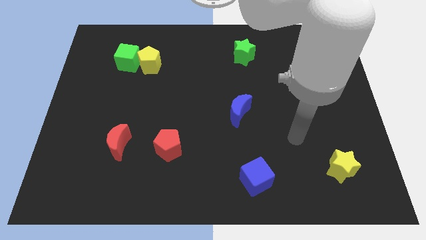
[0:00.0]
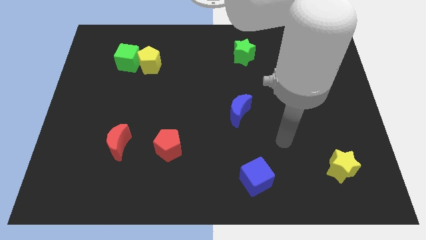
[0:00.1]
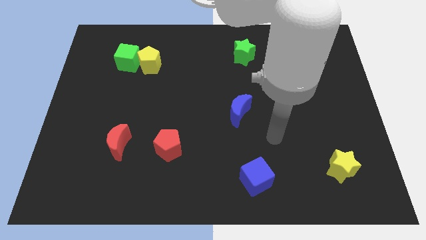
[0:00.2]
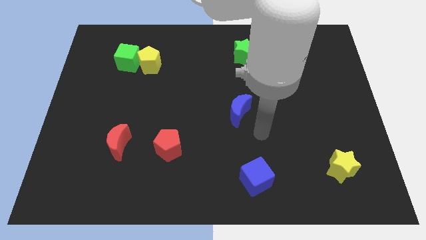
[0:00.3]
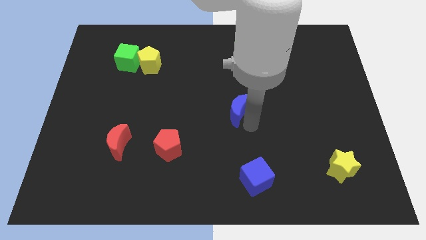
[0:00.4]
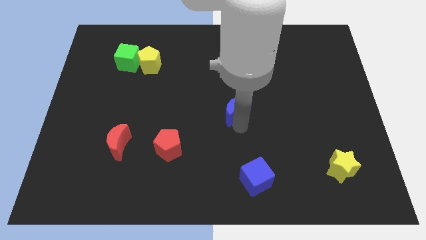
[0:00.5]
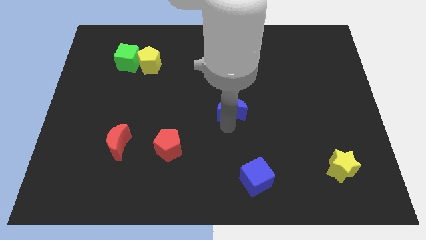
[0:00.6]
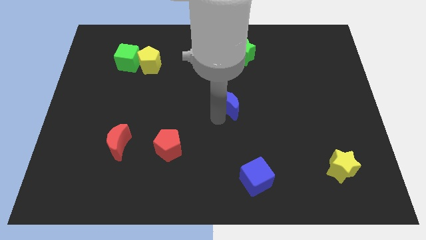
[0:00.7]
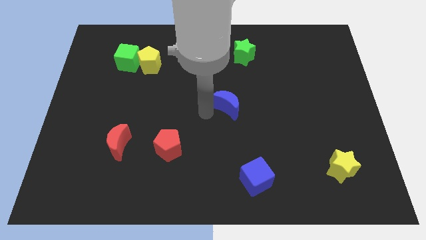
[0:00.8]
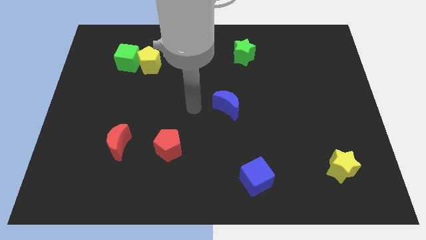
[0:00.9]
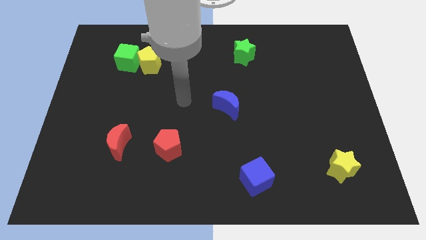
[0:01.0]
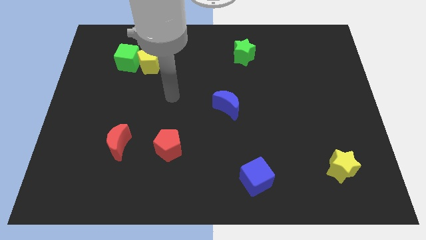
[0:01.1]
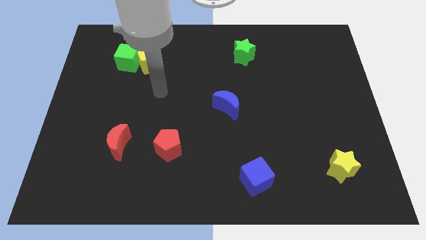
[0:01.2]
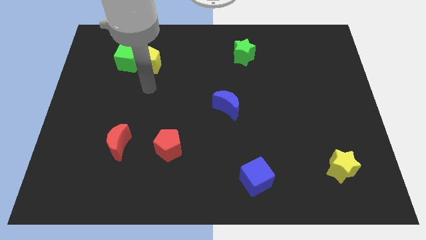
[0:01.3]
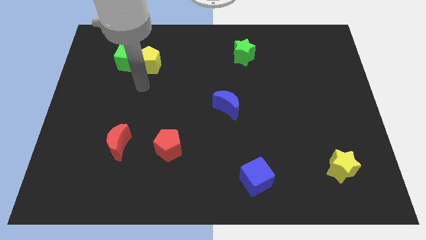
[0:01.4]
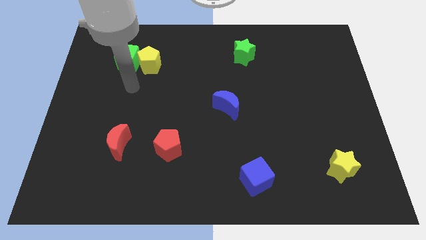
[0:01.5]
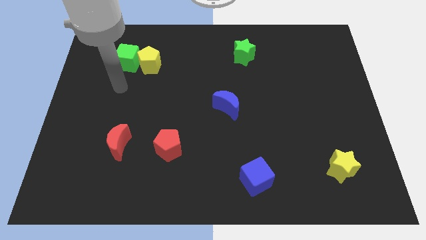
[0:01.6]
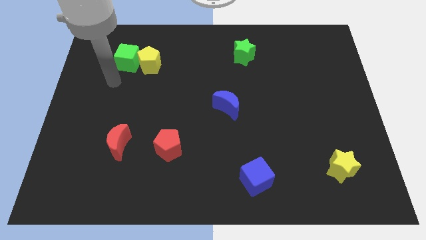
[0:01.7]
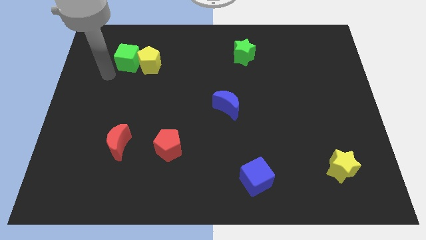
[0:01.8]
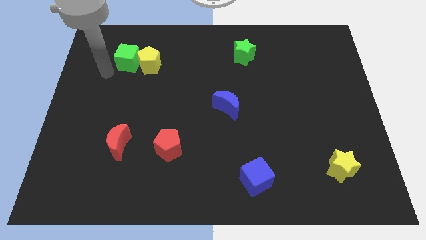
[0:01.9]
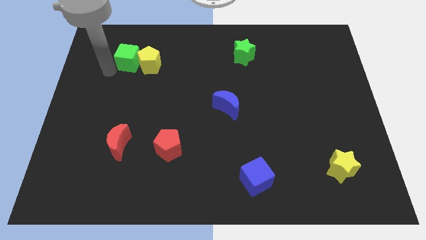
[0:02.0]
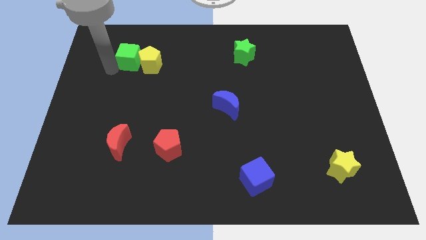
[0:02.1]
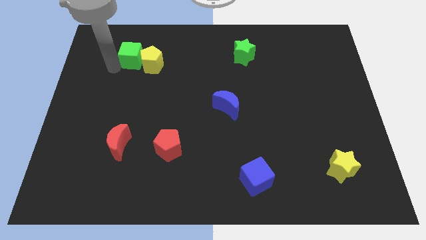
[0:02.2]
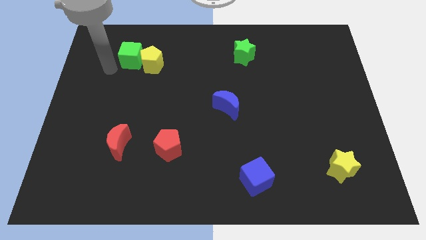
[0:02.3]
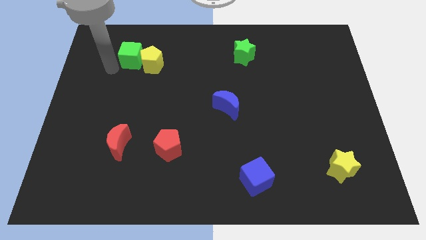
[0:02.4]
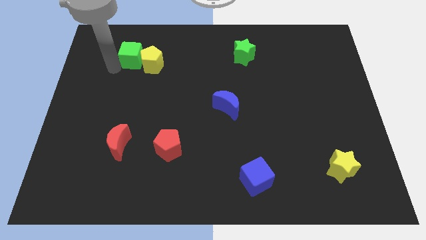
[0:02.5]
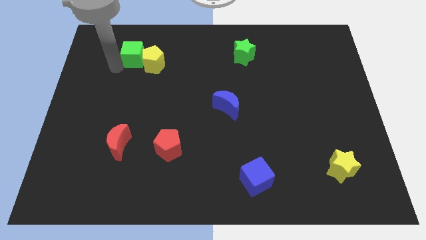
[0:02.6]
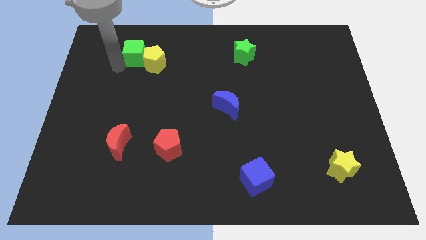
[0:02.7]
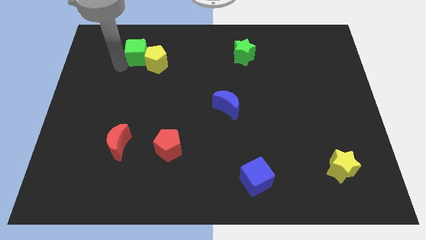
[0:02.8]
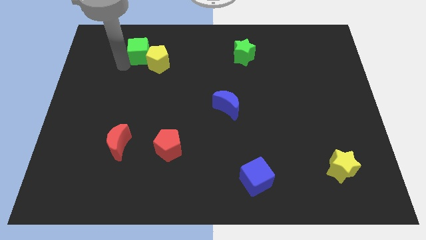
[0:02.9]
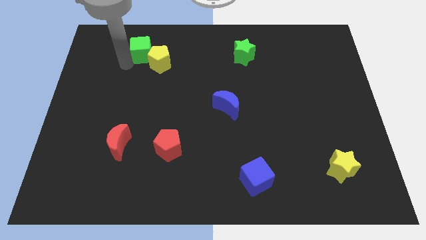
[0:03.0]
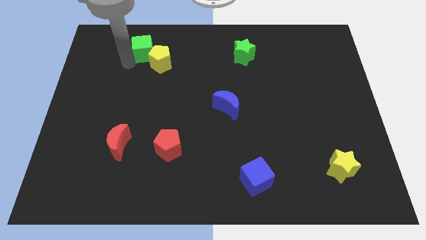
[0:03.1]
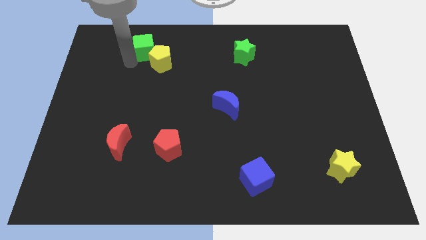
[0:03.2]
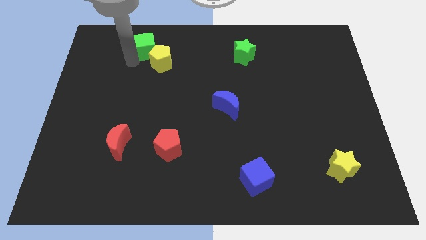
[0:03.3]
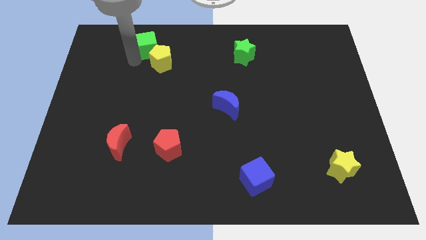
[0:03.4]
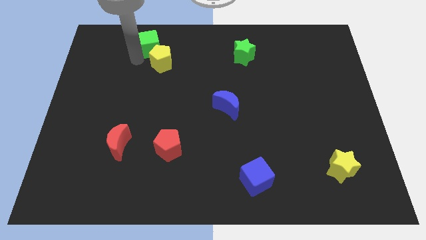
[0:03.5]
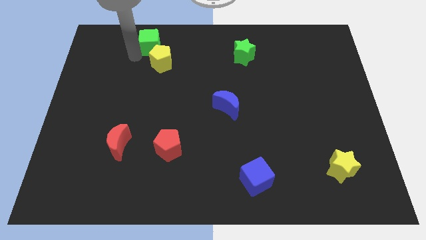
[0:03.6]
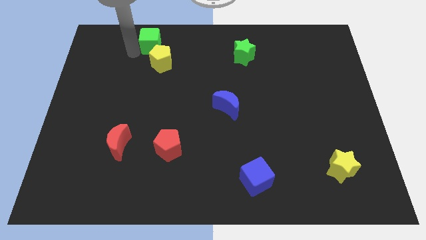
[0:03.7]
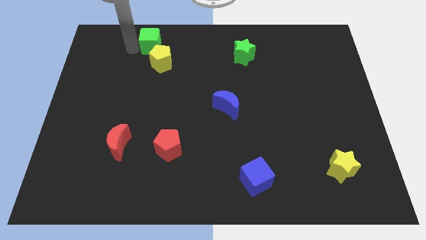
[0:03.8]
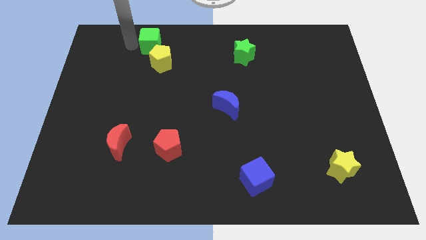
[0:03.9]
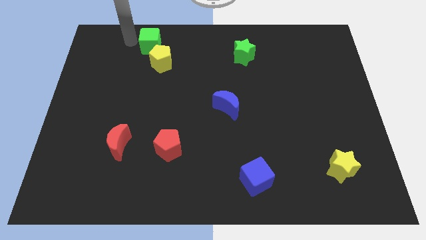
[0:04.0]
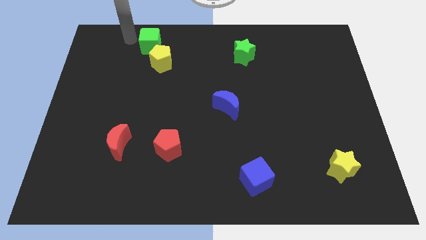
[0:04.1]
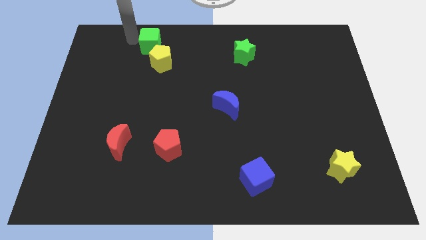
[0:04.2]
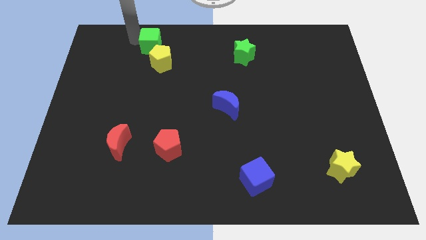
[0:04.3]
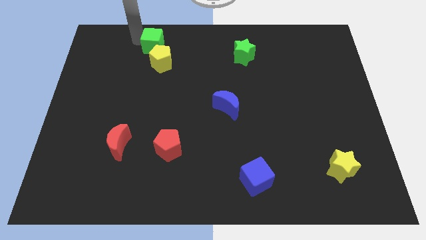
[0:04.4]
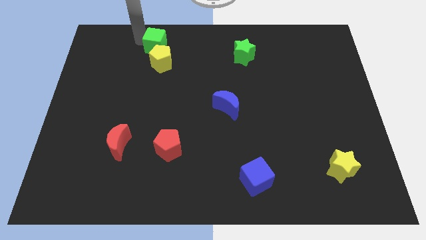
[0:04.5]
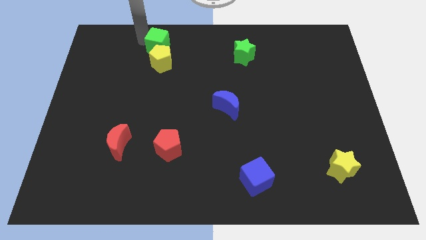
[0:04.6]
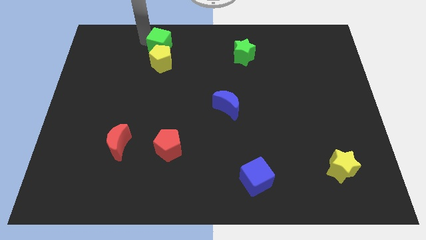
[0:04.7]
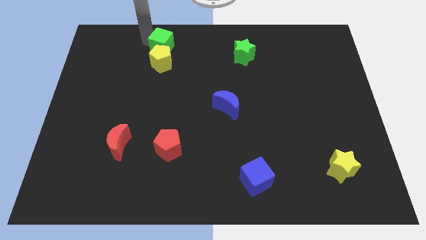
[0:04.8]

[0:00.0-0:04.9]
move the green cube somewhat to the right

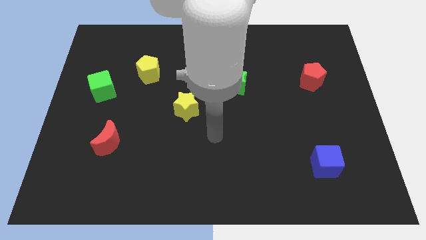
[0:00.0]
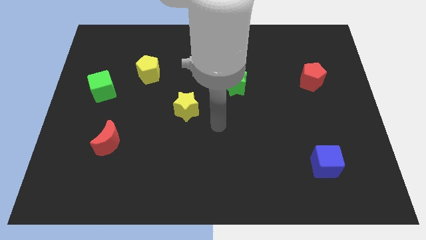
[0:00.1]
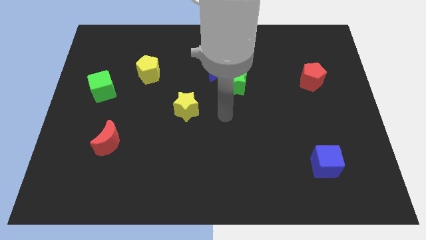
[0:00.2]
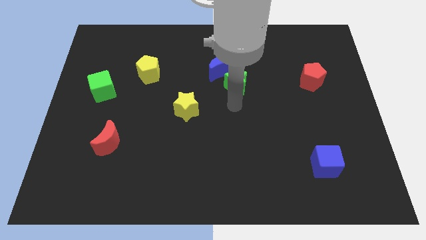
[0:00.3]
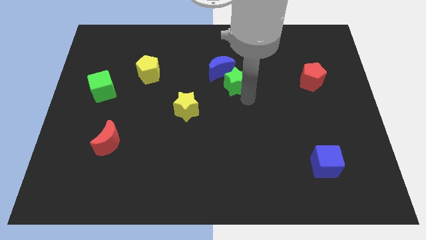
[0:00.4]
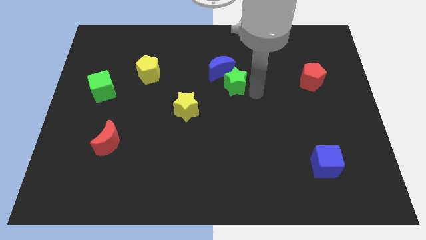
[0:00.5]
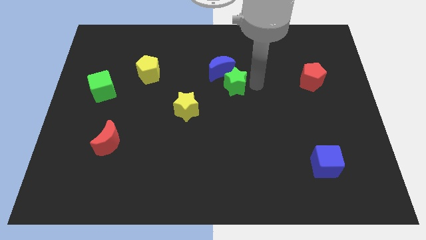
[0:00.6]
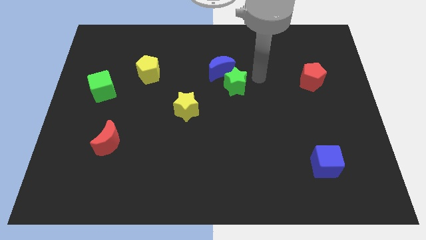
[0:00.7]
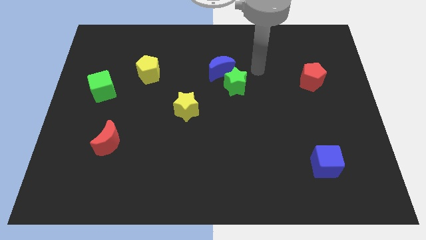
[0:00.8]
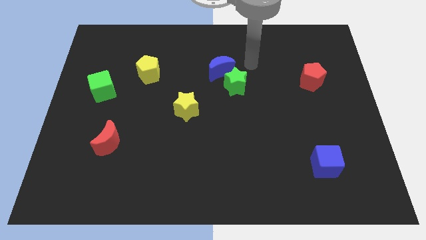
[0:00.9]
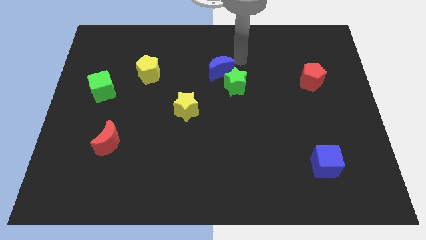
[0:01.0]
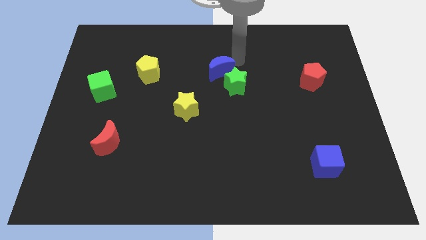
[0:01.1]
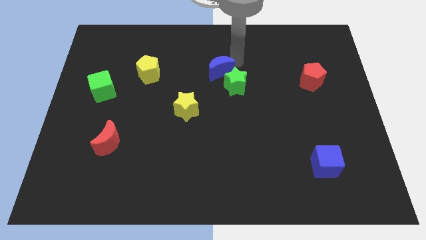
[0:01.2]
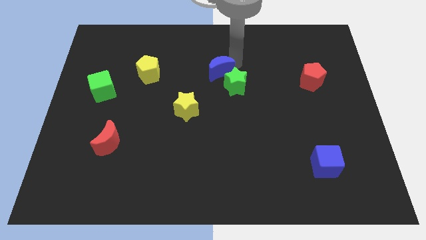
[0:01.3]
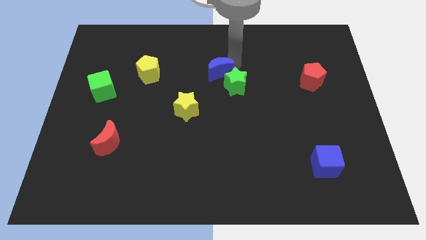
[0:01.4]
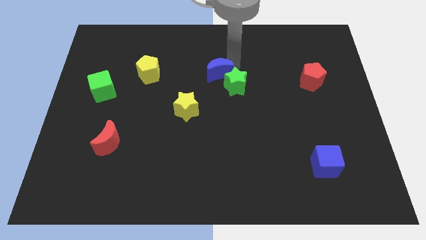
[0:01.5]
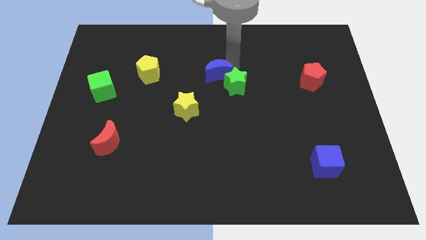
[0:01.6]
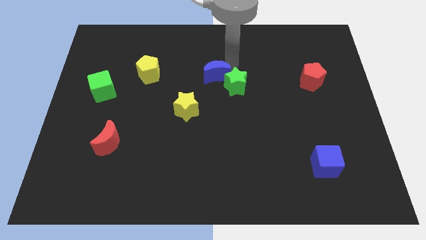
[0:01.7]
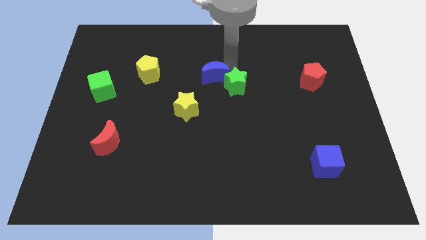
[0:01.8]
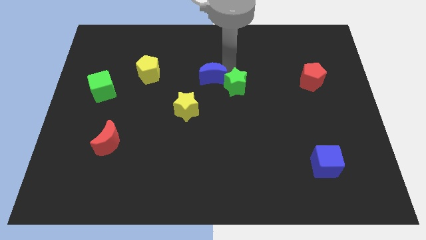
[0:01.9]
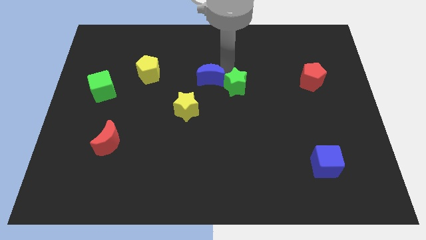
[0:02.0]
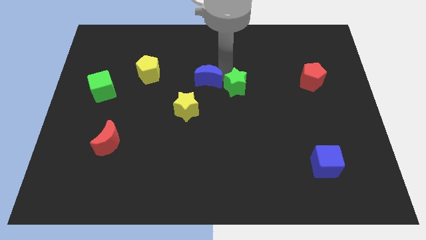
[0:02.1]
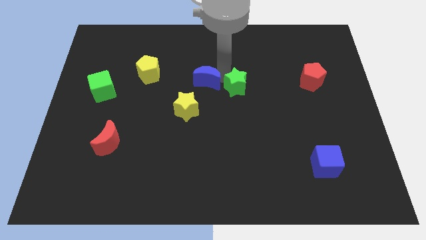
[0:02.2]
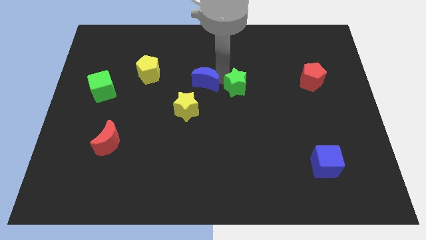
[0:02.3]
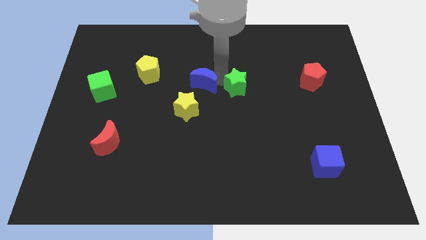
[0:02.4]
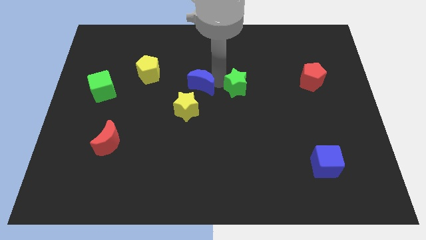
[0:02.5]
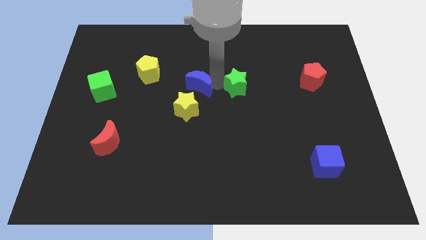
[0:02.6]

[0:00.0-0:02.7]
push the blue moon diagonally downwards and to the left slightly

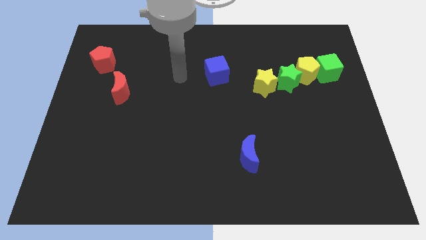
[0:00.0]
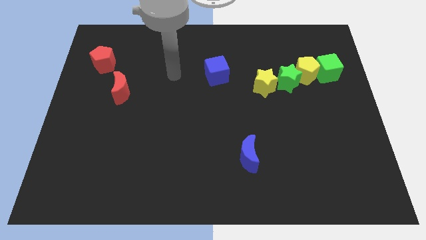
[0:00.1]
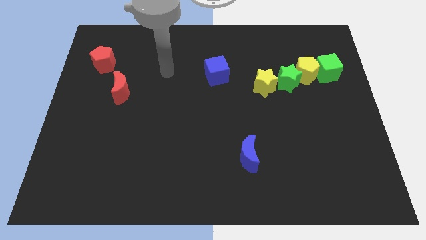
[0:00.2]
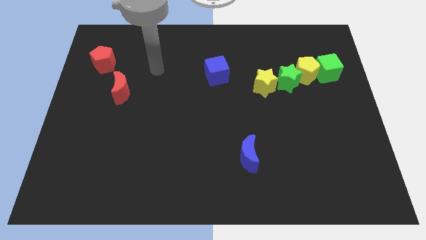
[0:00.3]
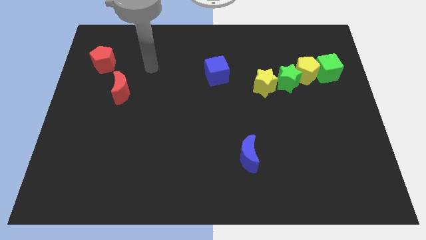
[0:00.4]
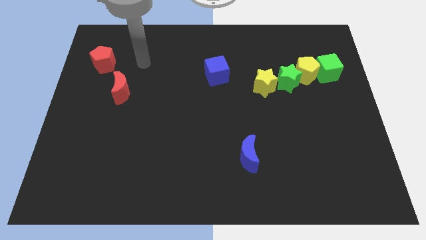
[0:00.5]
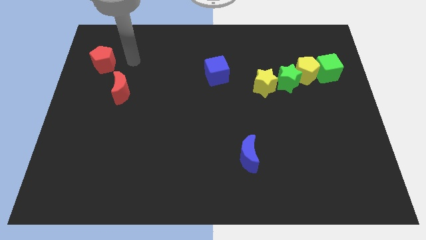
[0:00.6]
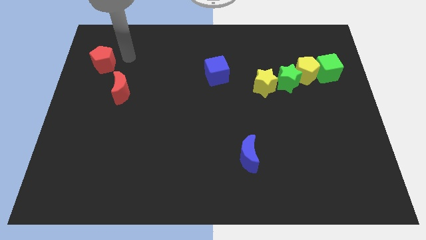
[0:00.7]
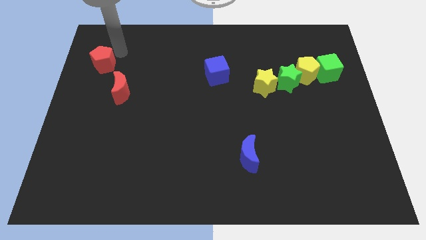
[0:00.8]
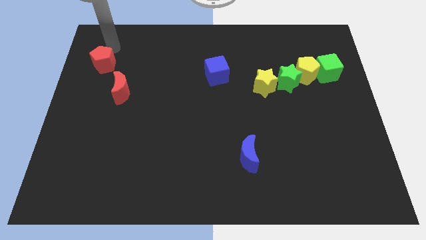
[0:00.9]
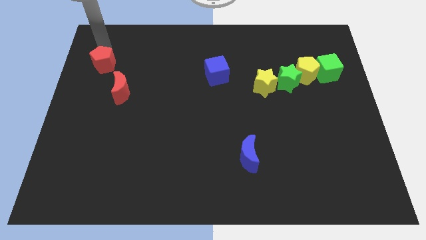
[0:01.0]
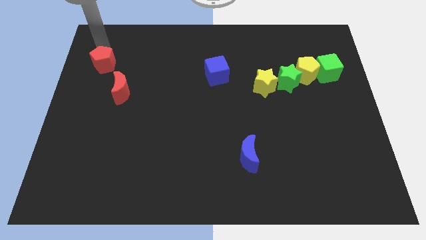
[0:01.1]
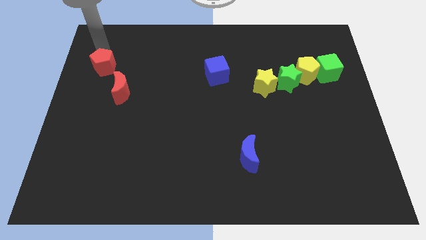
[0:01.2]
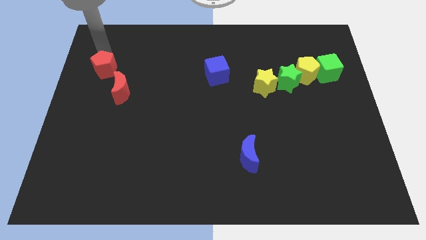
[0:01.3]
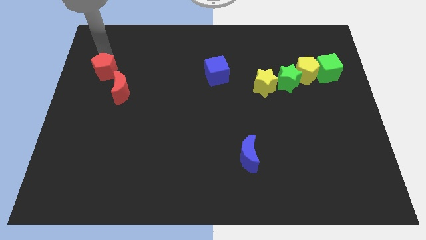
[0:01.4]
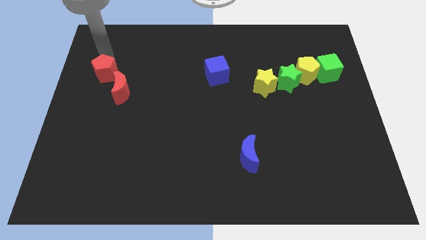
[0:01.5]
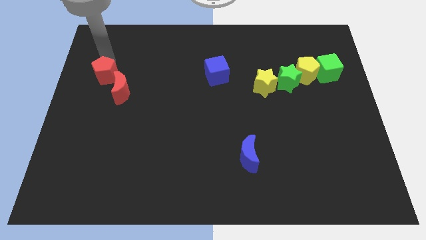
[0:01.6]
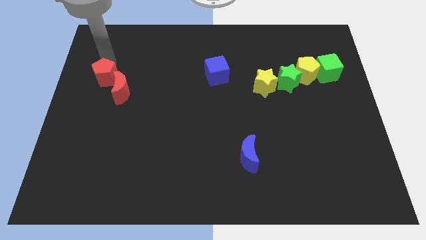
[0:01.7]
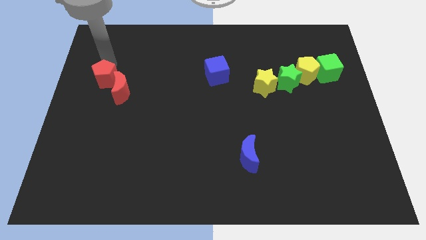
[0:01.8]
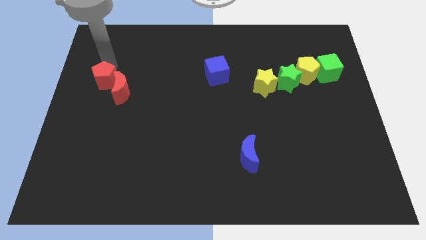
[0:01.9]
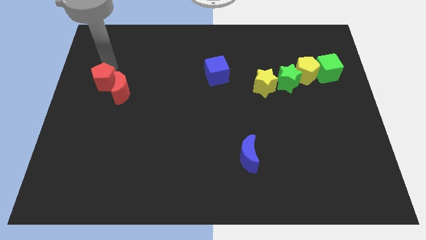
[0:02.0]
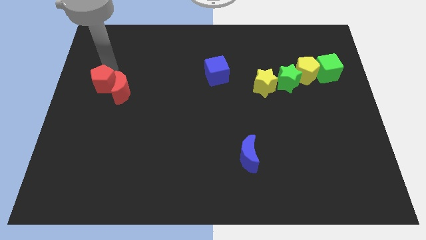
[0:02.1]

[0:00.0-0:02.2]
slightly slide the red pentagon down
